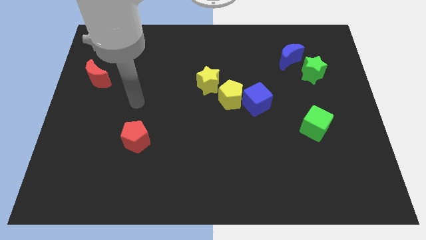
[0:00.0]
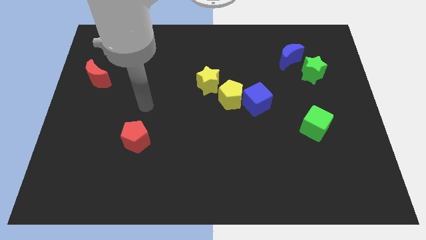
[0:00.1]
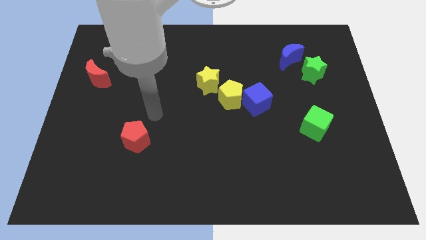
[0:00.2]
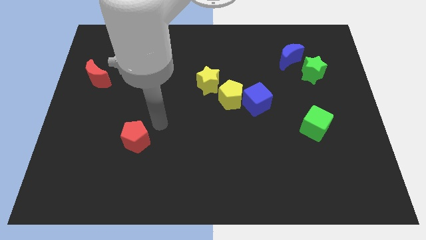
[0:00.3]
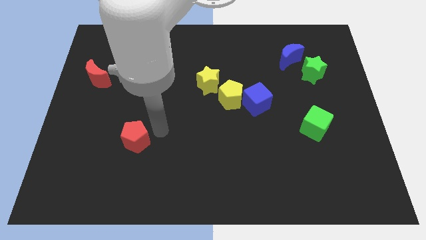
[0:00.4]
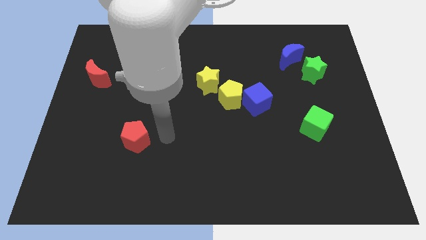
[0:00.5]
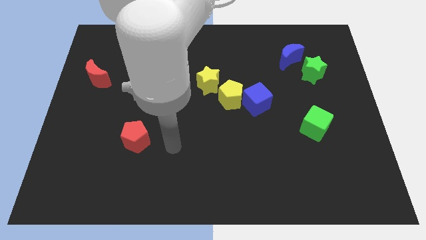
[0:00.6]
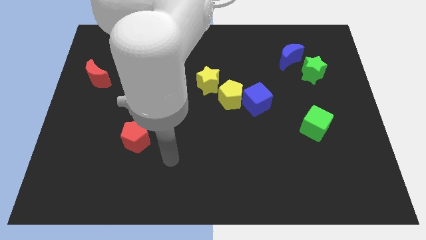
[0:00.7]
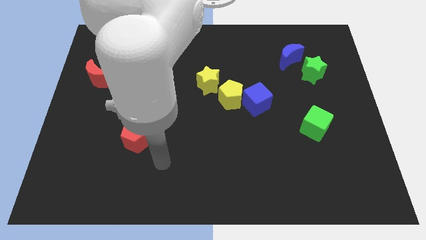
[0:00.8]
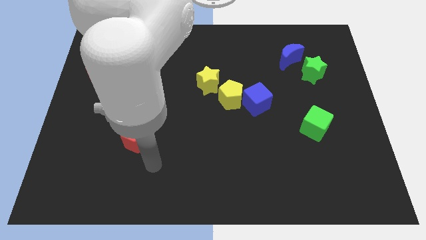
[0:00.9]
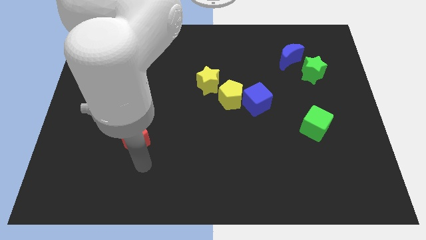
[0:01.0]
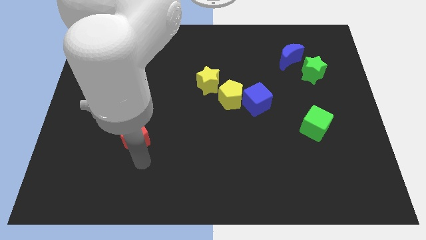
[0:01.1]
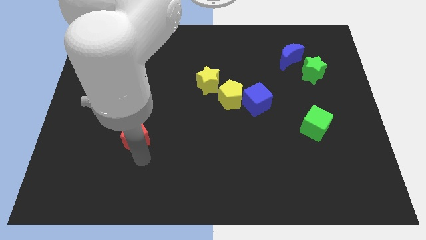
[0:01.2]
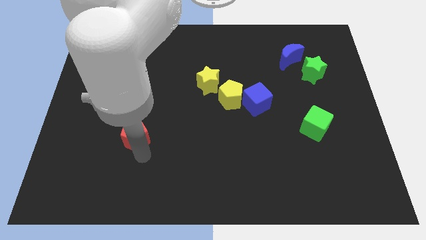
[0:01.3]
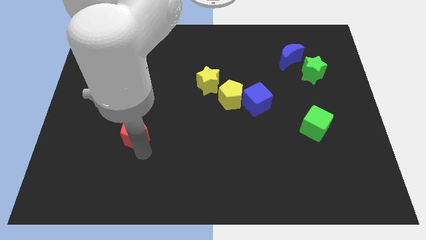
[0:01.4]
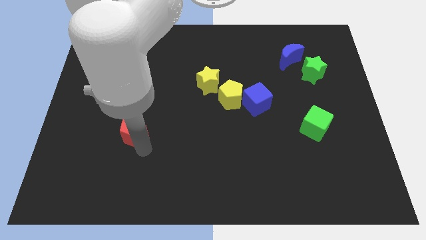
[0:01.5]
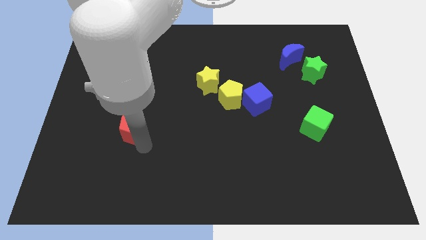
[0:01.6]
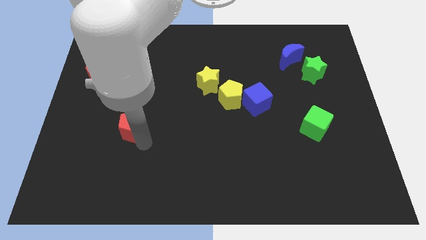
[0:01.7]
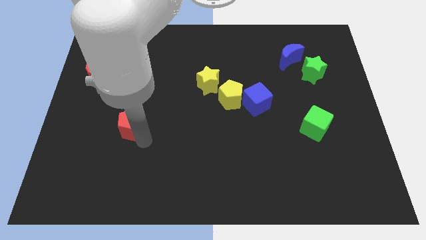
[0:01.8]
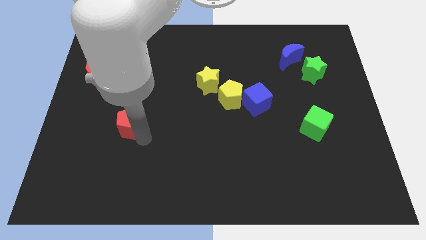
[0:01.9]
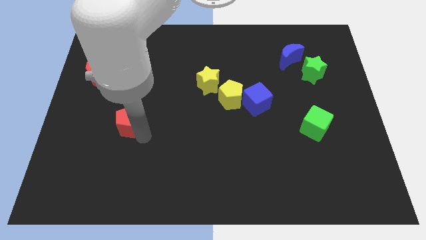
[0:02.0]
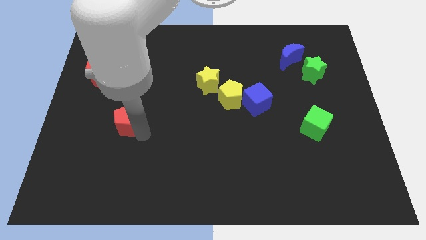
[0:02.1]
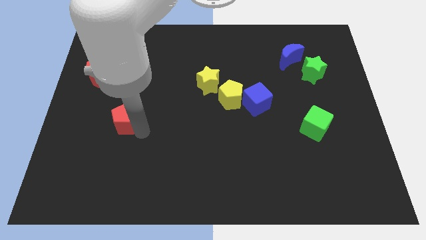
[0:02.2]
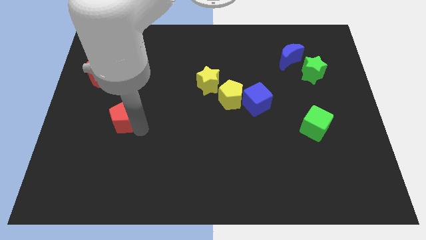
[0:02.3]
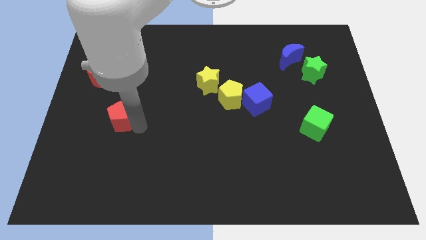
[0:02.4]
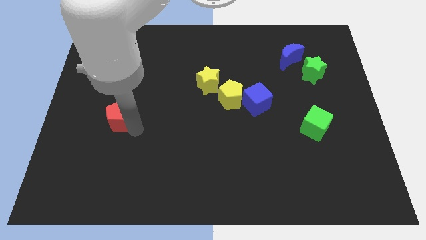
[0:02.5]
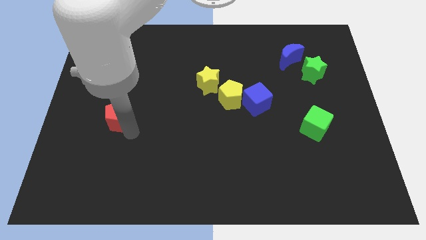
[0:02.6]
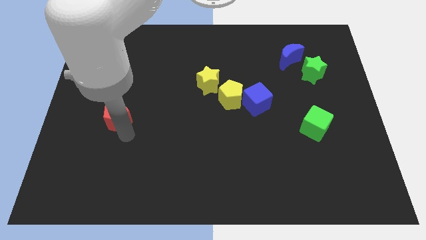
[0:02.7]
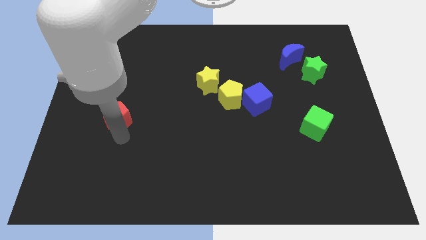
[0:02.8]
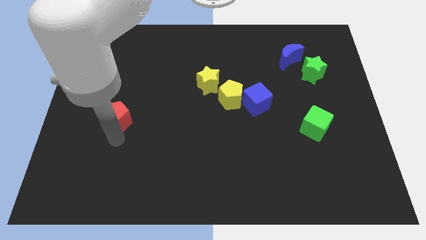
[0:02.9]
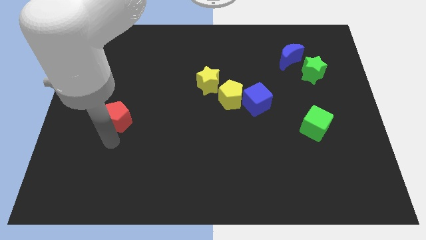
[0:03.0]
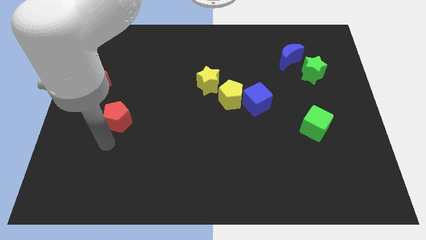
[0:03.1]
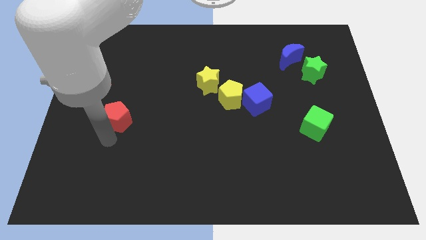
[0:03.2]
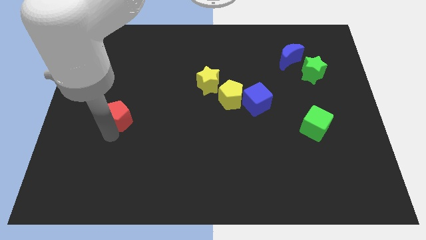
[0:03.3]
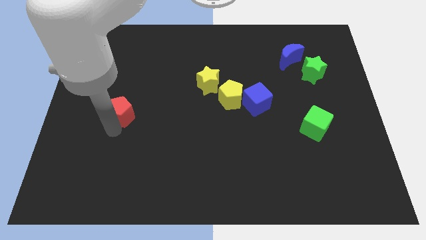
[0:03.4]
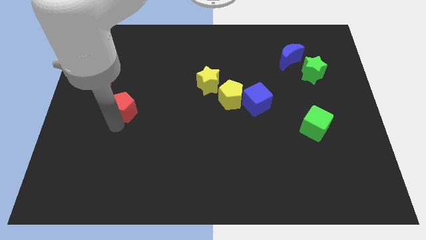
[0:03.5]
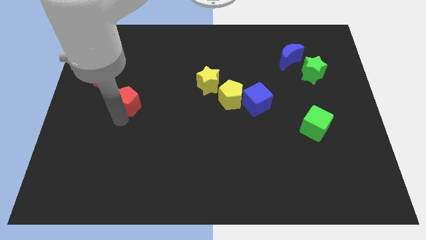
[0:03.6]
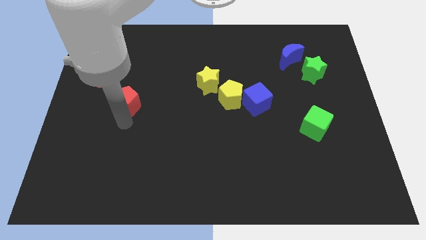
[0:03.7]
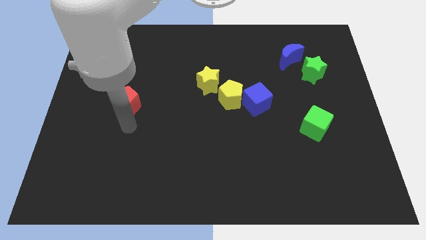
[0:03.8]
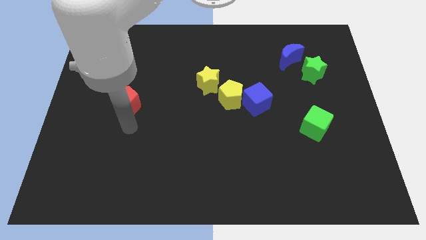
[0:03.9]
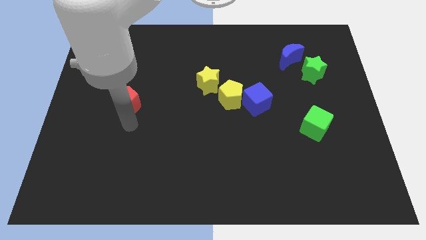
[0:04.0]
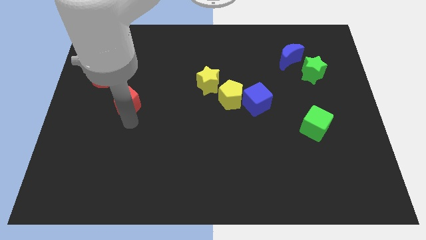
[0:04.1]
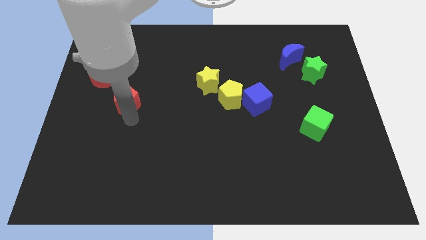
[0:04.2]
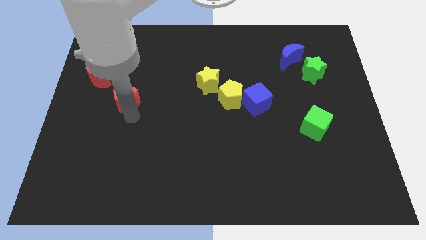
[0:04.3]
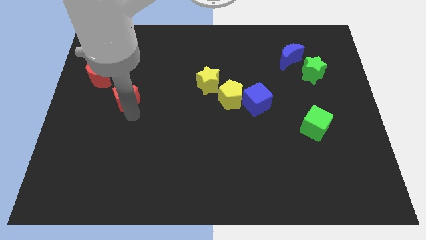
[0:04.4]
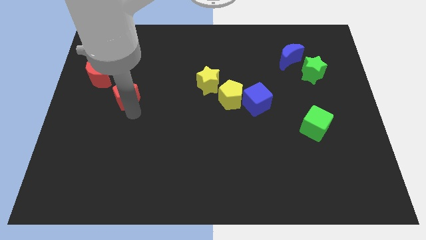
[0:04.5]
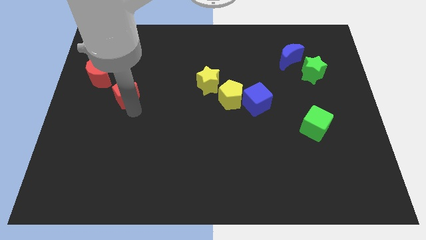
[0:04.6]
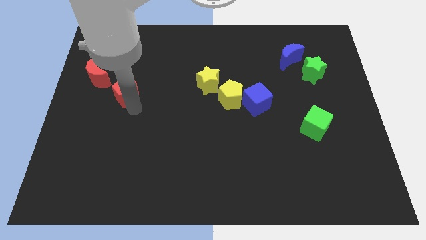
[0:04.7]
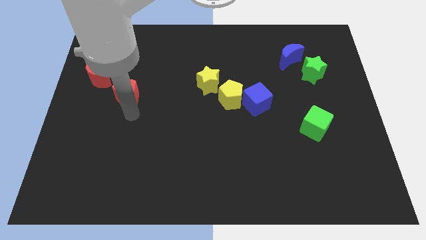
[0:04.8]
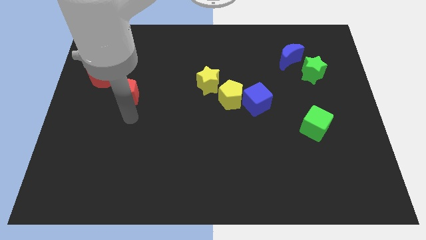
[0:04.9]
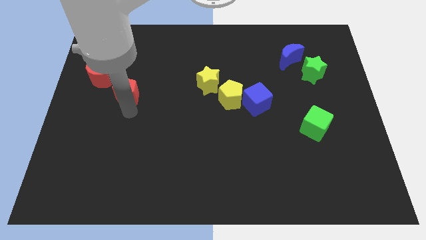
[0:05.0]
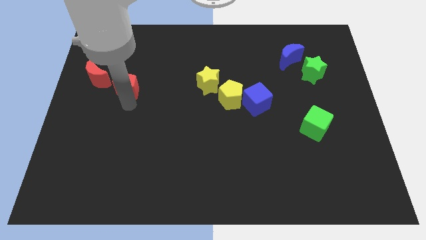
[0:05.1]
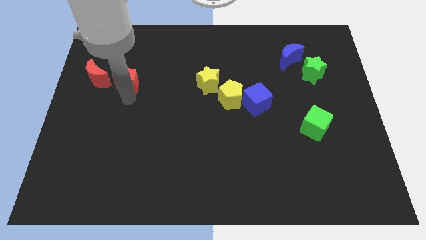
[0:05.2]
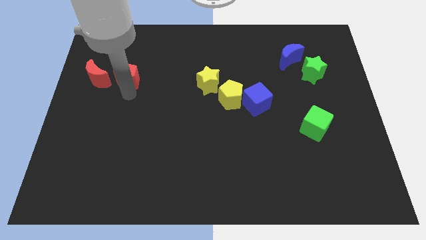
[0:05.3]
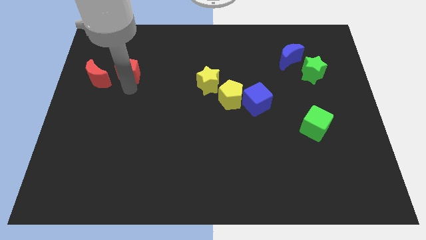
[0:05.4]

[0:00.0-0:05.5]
put the red pentagon diagonally up and to the right of the red moon

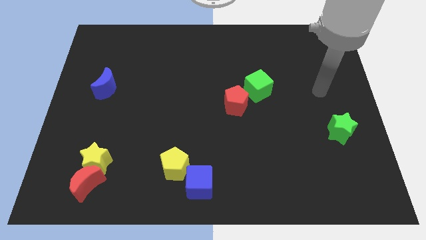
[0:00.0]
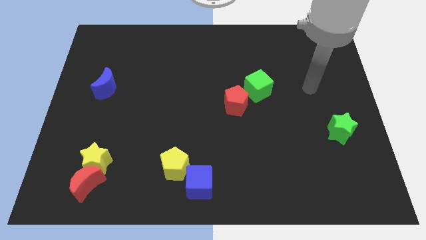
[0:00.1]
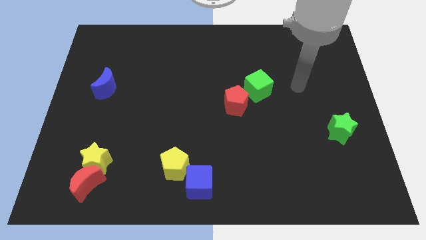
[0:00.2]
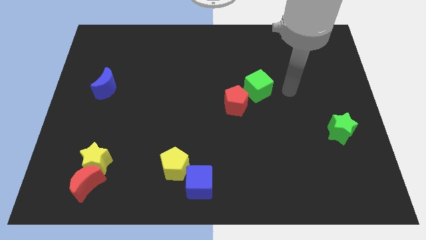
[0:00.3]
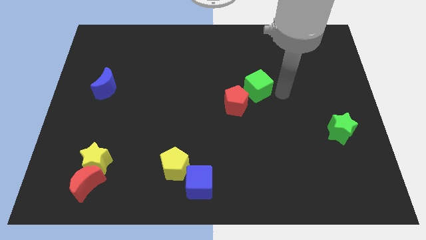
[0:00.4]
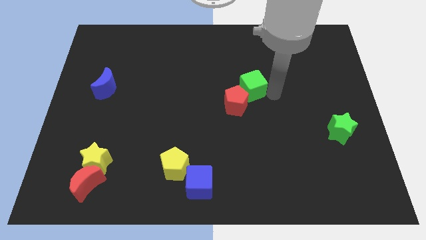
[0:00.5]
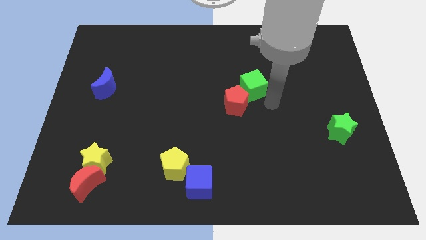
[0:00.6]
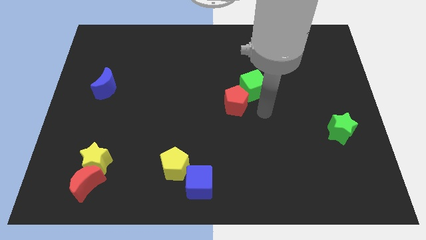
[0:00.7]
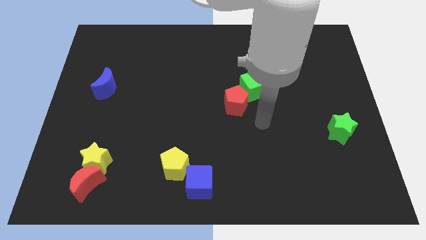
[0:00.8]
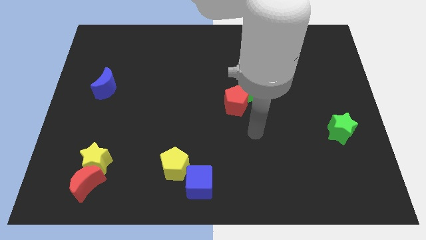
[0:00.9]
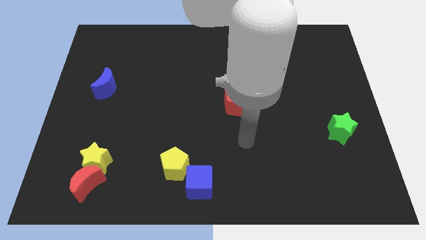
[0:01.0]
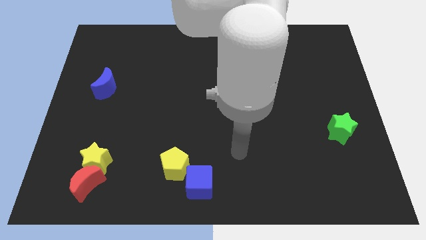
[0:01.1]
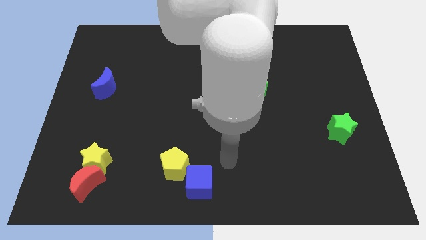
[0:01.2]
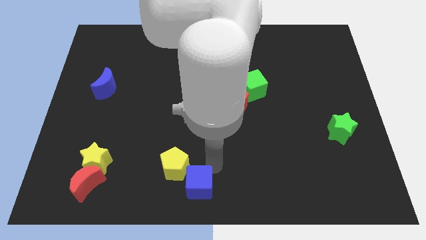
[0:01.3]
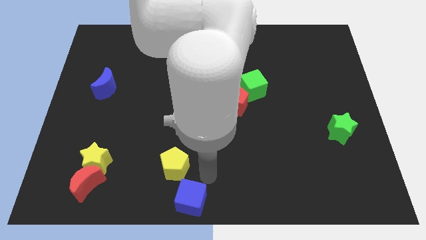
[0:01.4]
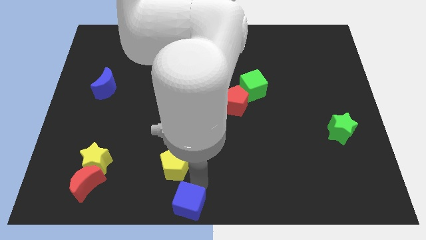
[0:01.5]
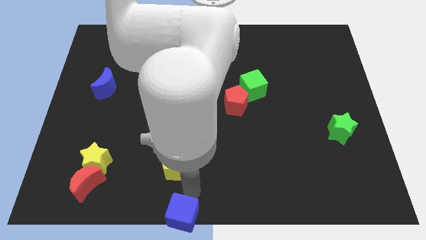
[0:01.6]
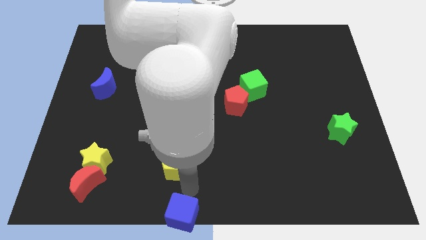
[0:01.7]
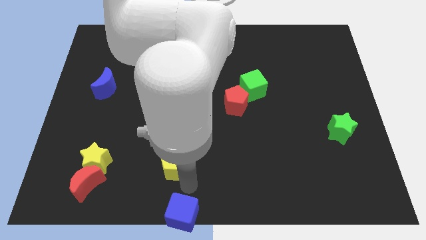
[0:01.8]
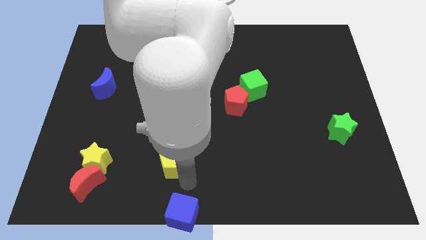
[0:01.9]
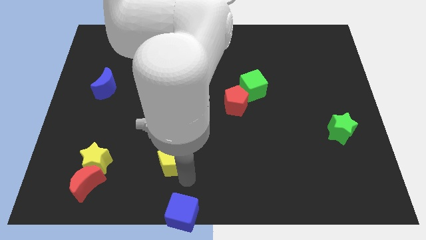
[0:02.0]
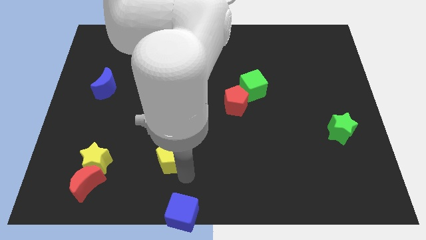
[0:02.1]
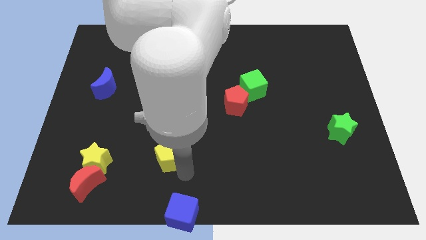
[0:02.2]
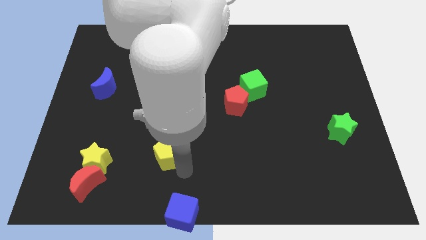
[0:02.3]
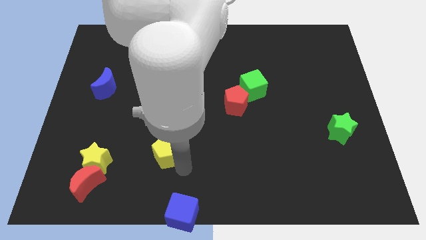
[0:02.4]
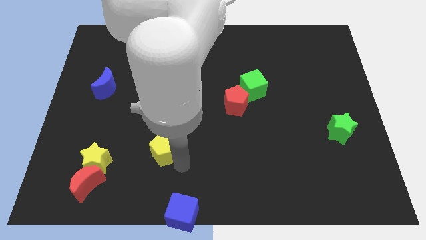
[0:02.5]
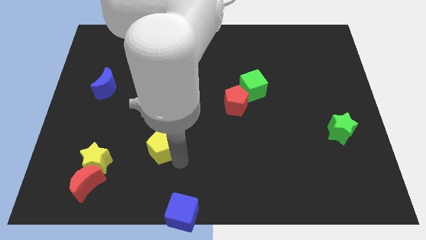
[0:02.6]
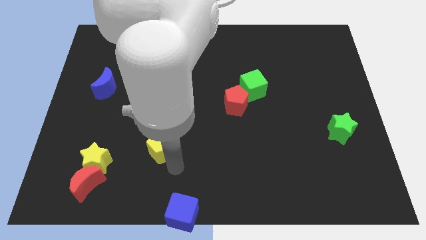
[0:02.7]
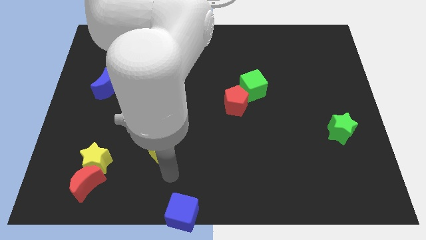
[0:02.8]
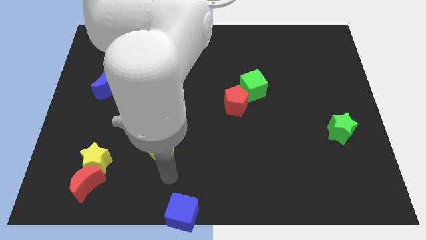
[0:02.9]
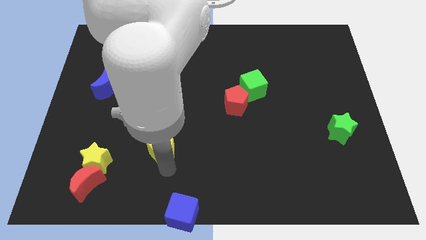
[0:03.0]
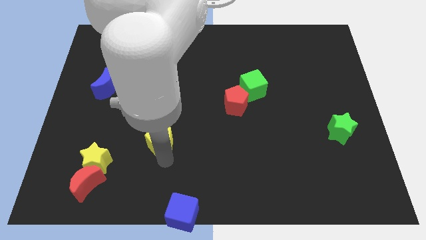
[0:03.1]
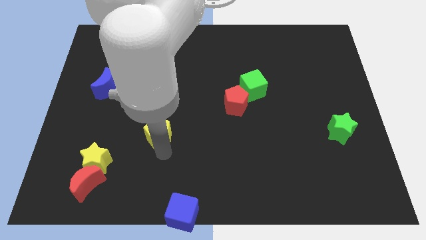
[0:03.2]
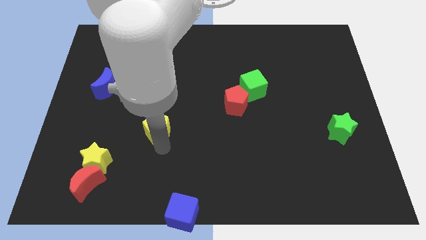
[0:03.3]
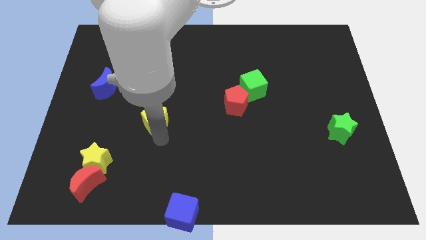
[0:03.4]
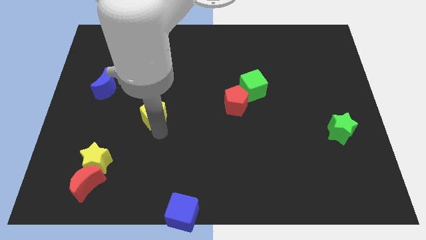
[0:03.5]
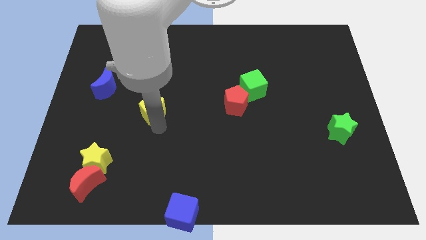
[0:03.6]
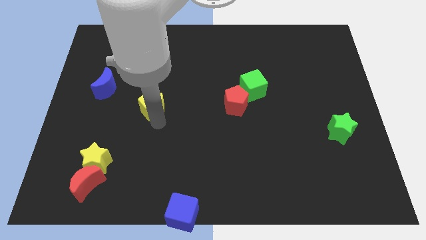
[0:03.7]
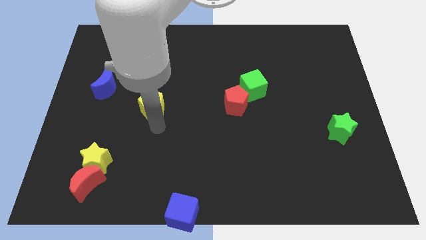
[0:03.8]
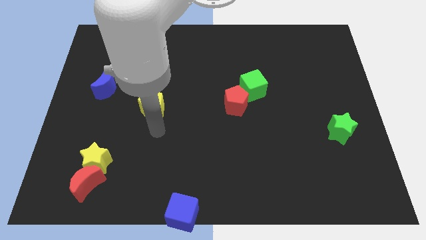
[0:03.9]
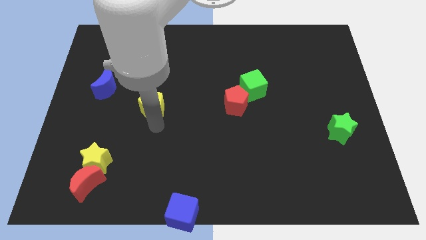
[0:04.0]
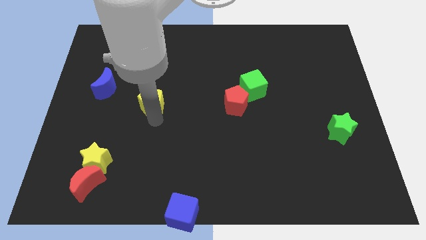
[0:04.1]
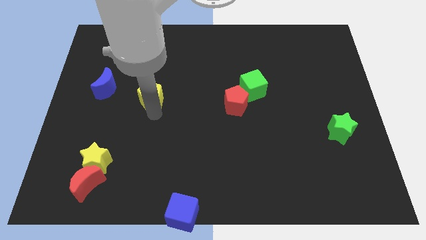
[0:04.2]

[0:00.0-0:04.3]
put the yellow pentagon to the right of the blue moon
